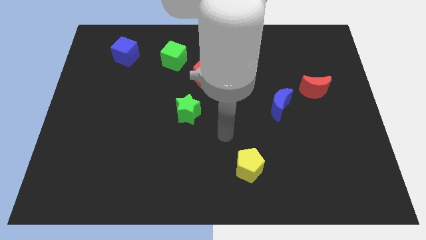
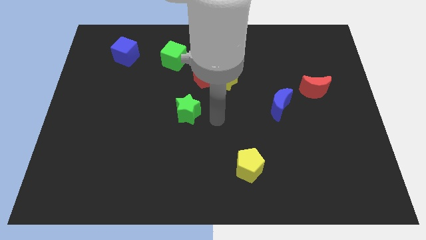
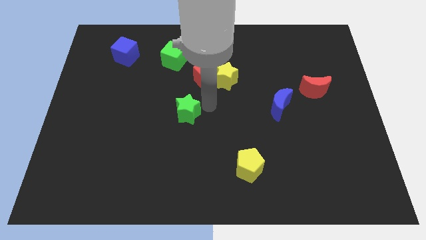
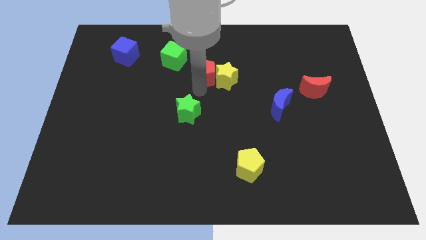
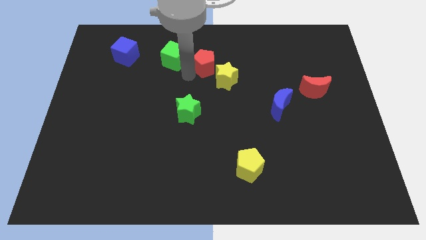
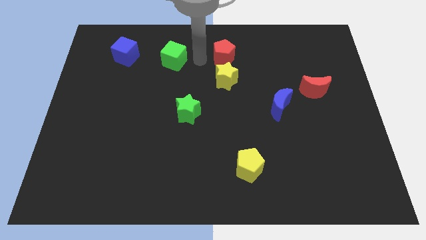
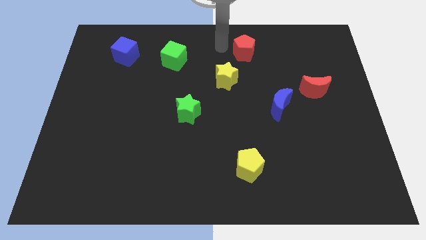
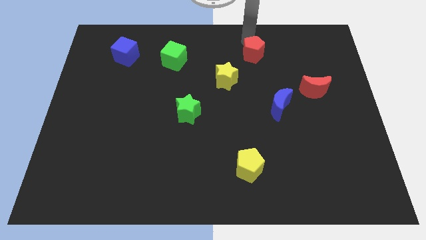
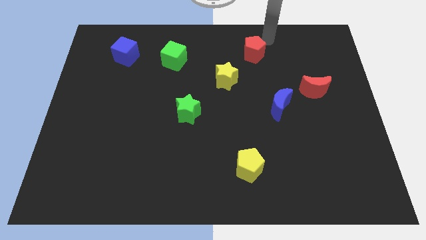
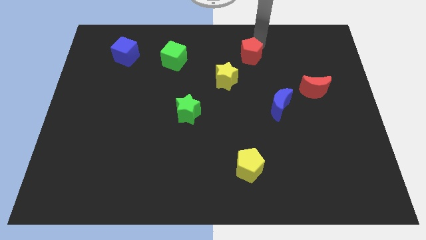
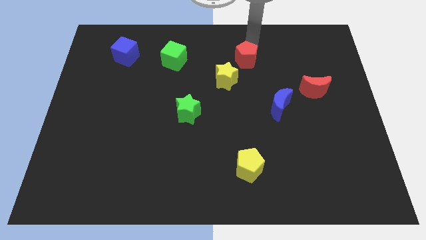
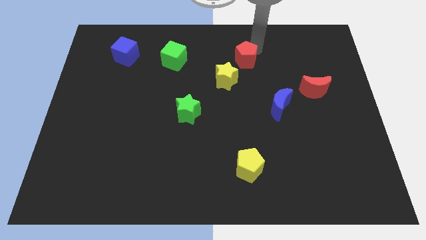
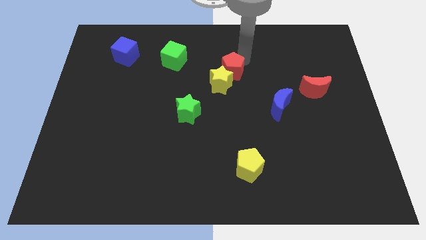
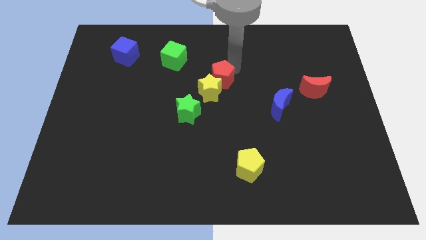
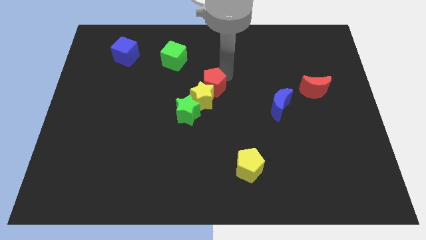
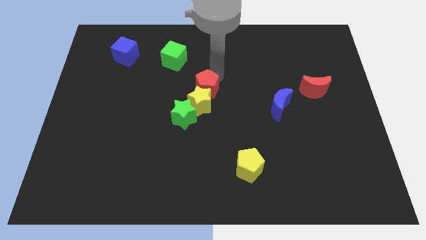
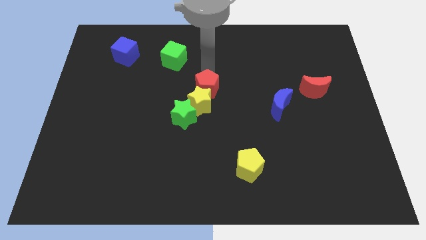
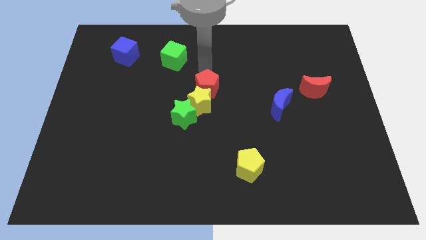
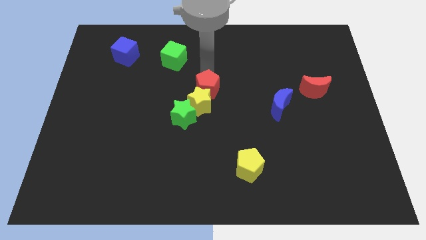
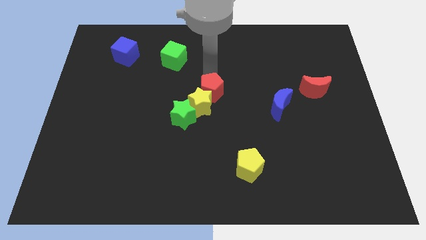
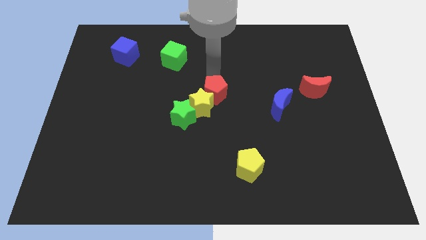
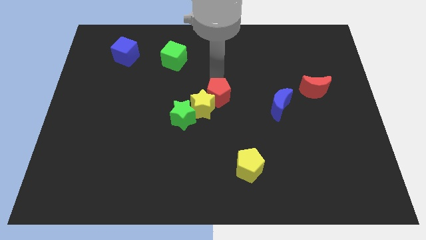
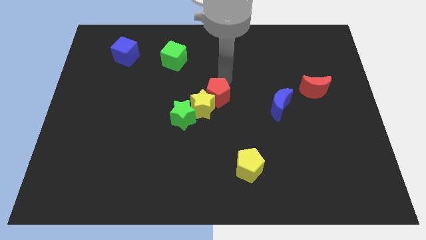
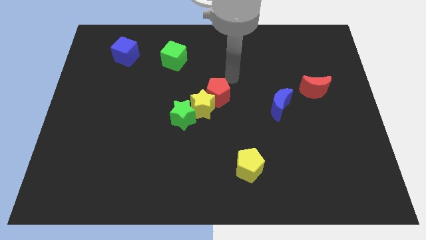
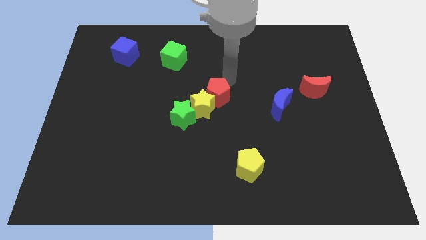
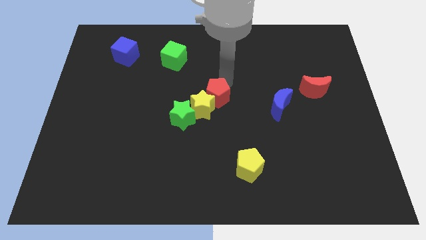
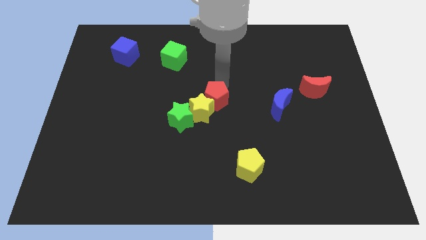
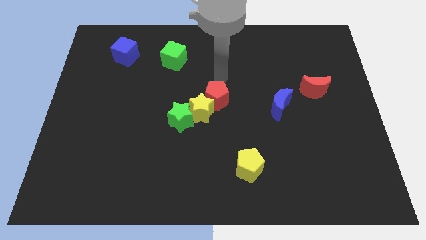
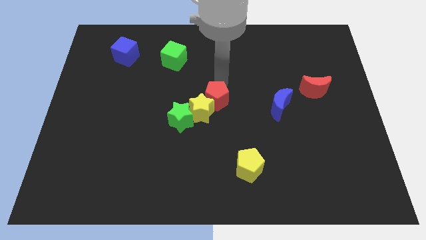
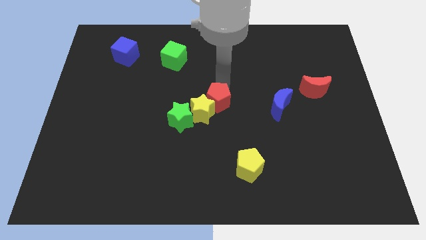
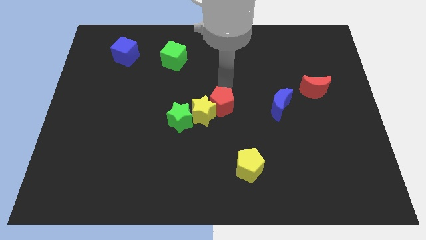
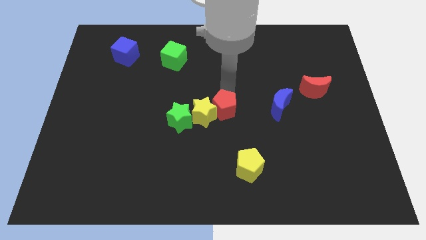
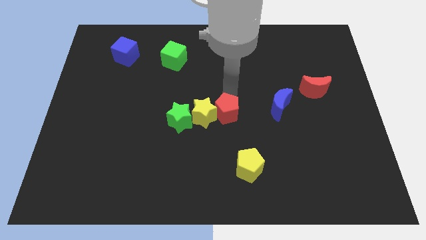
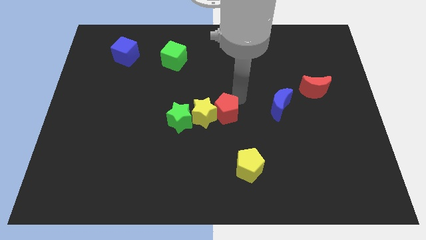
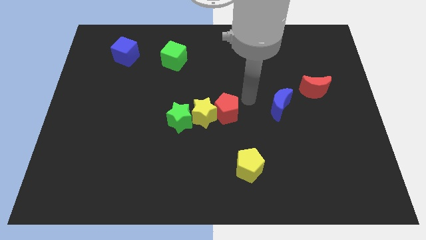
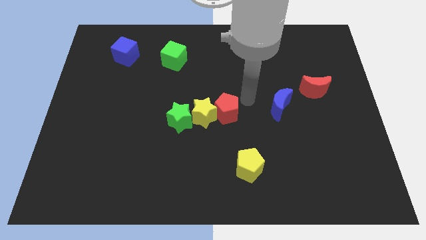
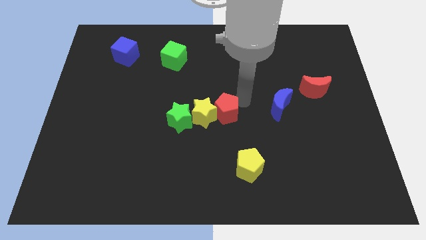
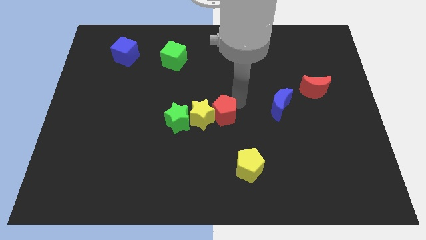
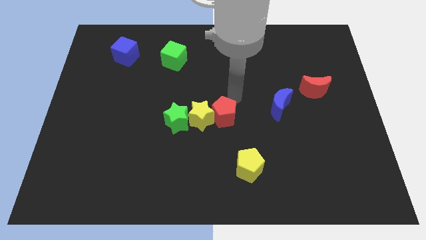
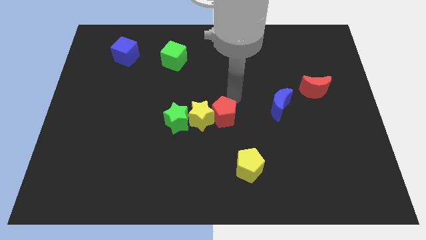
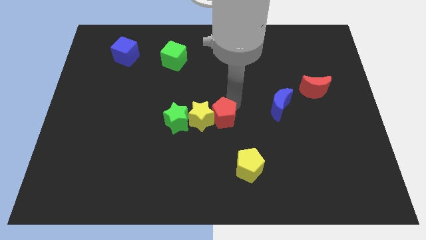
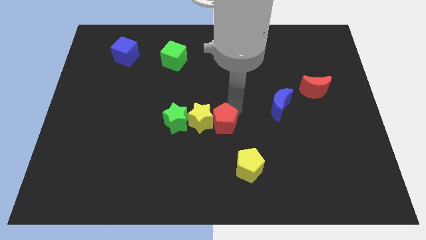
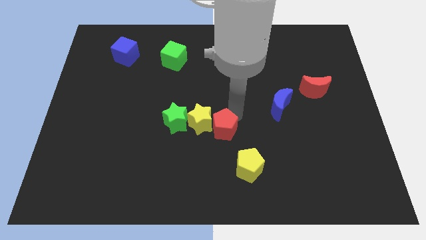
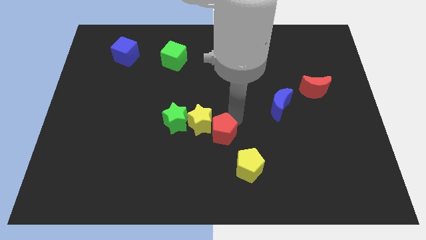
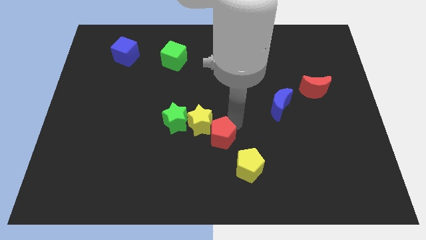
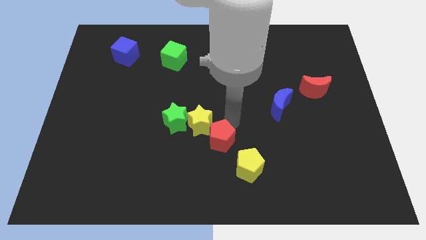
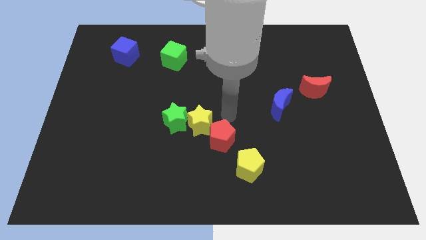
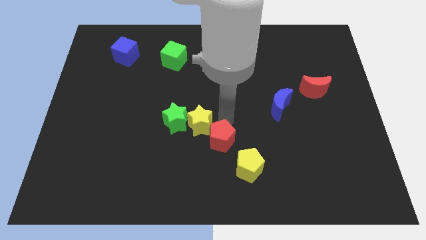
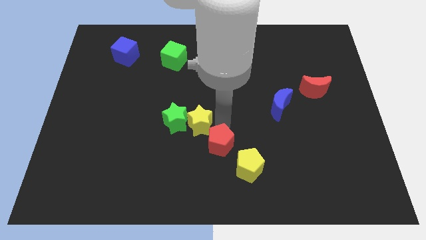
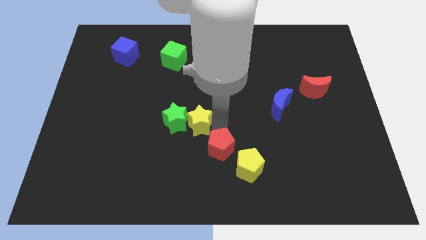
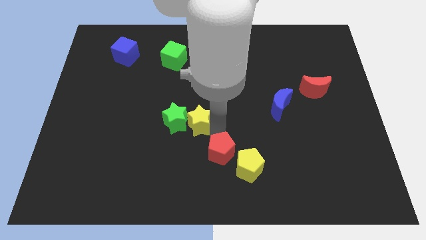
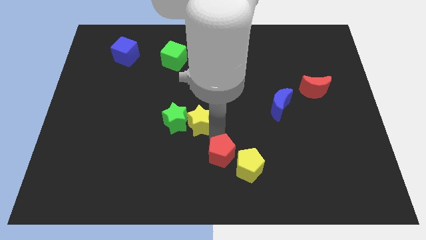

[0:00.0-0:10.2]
push the red pentagon to the bottom

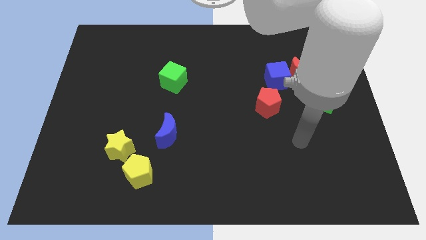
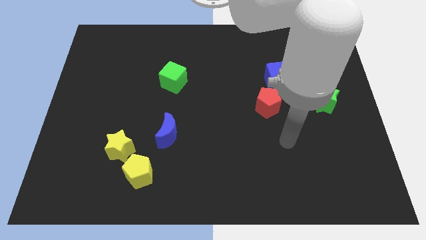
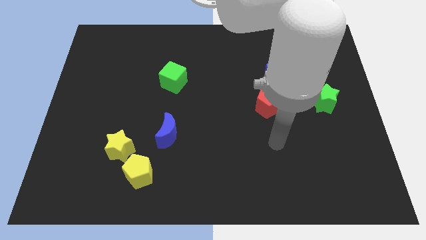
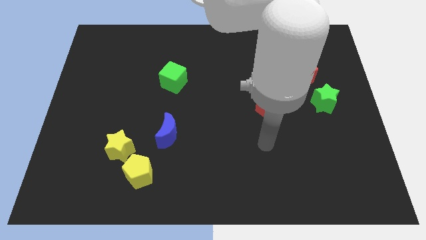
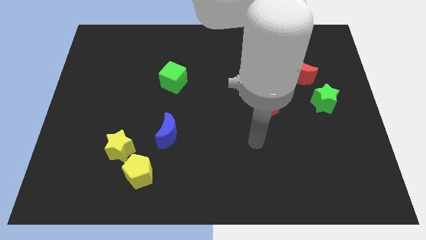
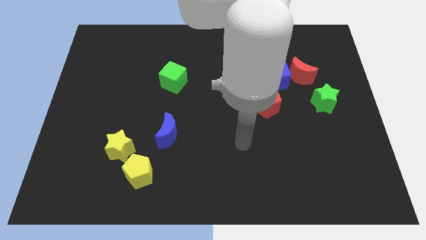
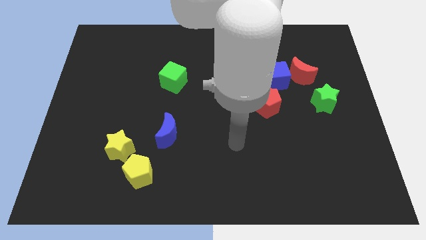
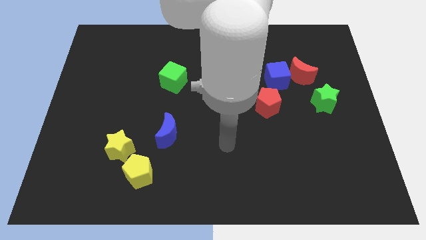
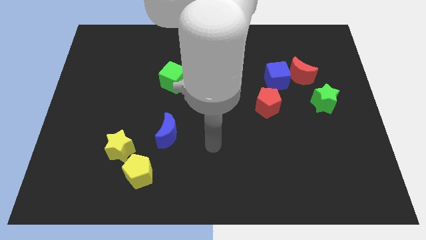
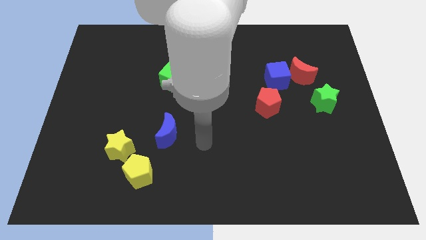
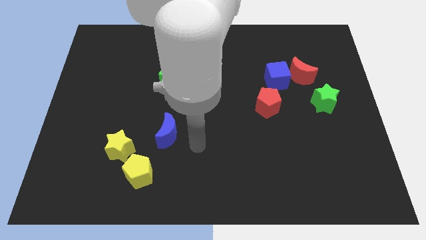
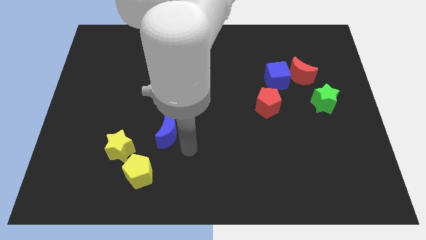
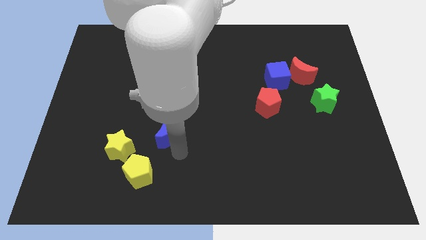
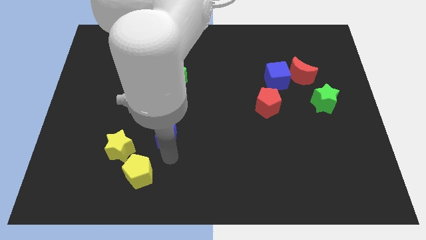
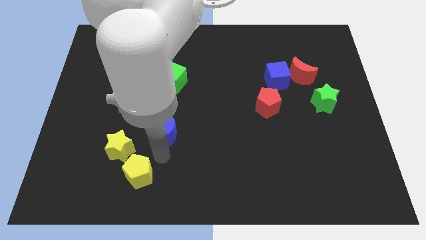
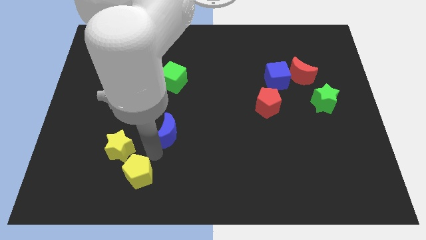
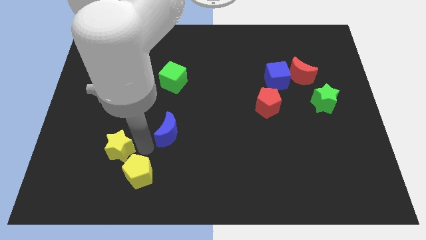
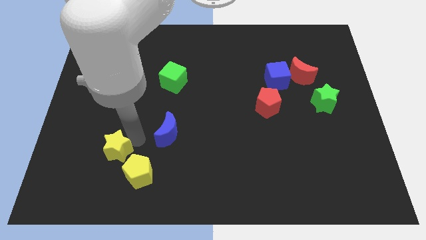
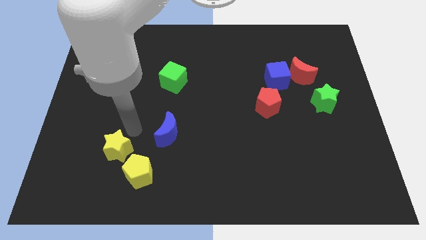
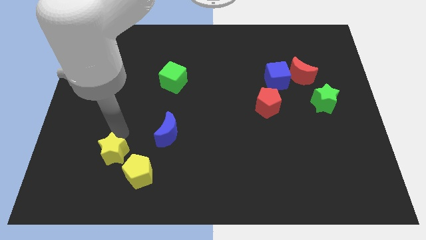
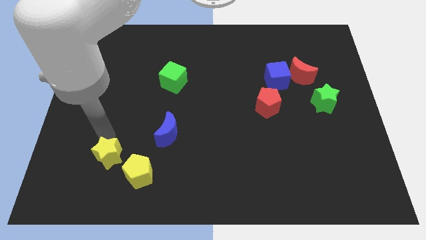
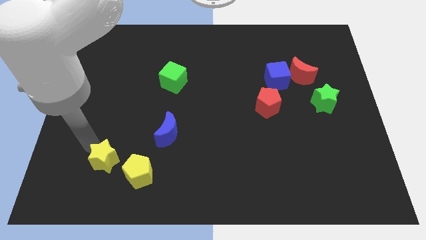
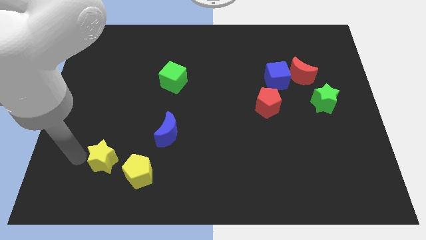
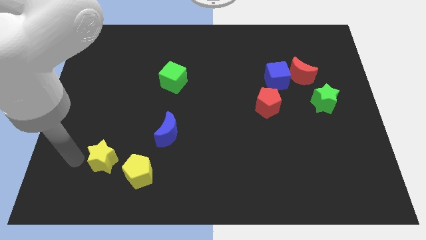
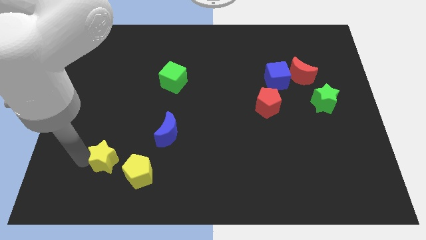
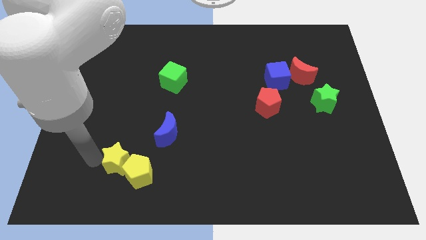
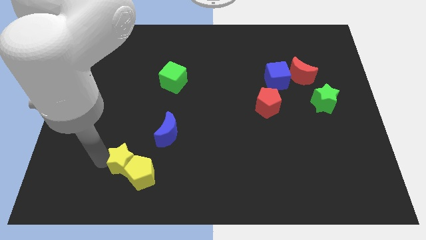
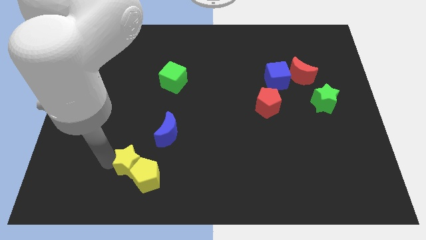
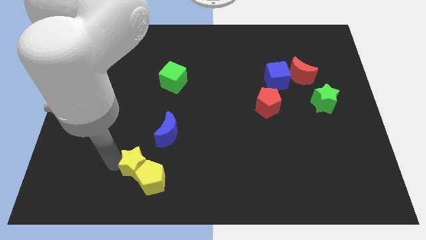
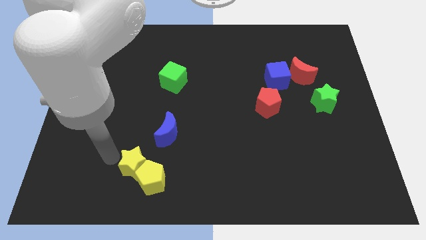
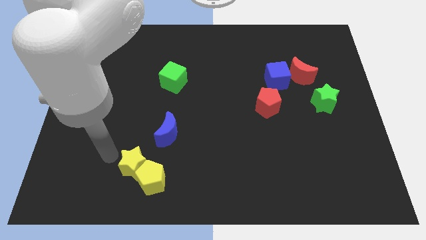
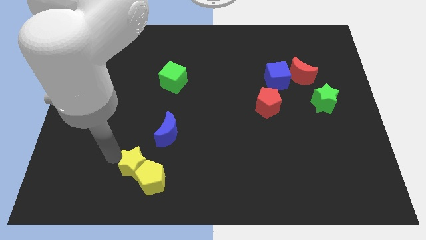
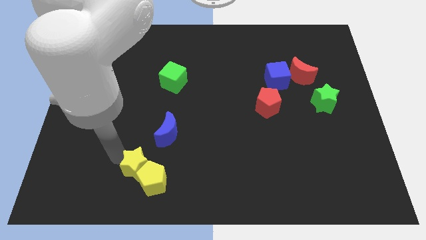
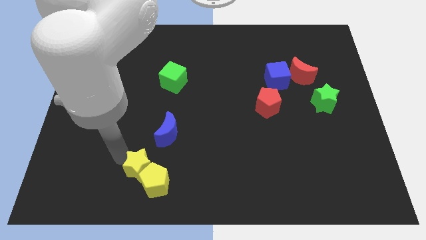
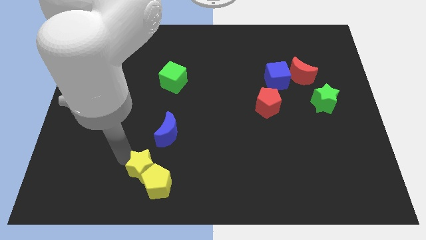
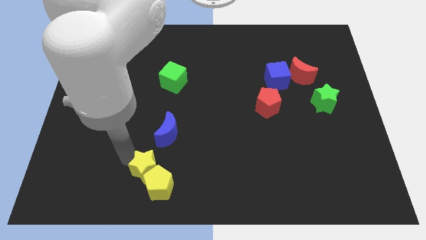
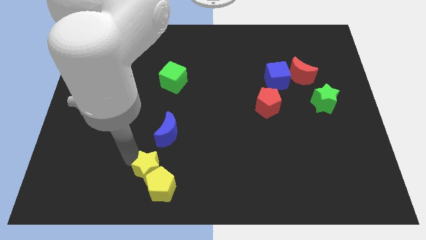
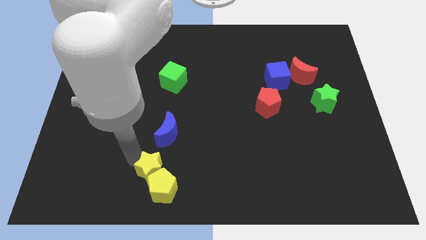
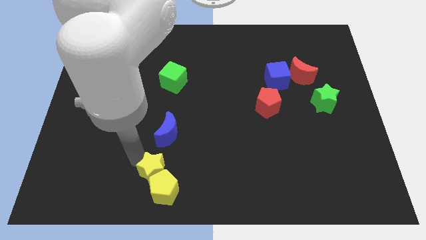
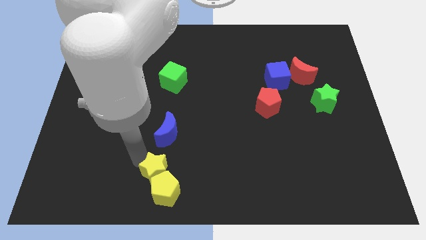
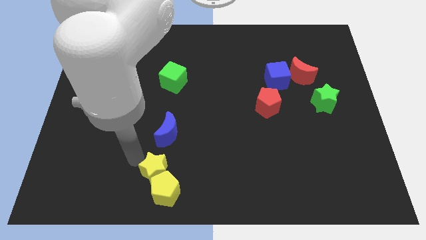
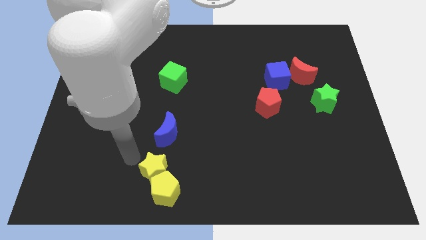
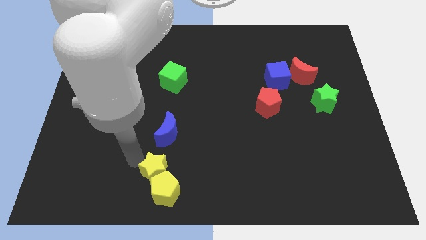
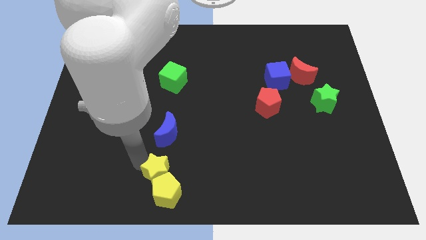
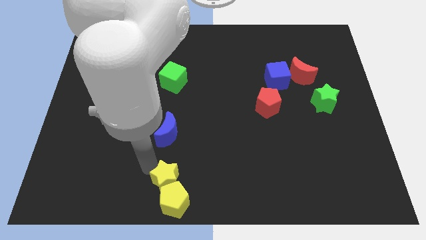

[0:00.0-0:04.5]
put the yellow star to the bottom
